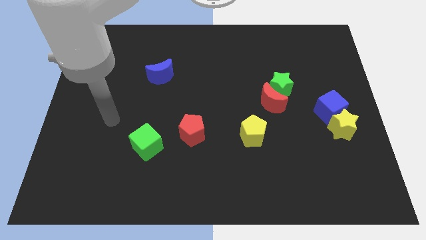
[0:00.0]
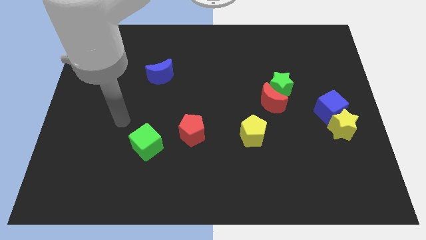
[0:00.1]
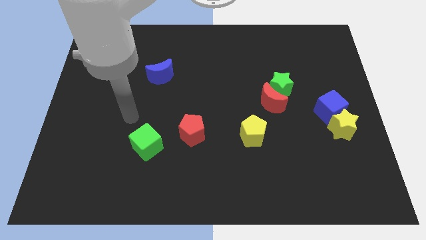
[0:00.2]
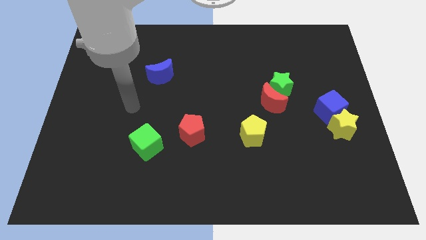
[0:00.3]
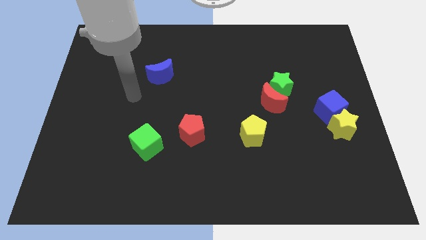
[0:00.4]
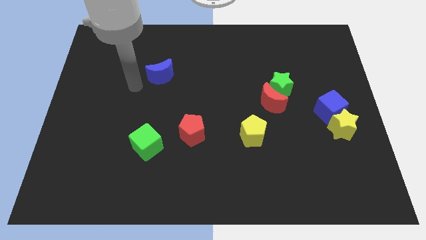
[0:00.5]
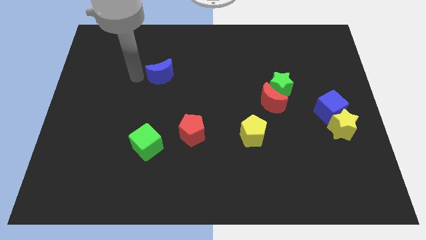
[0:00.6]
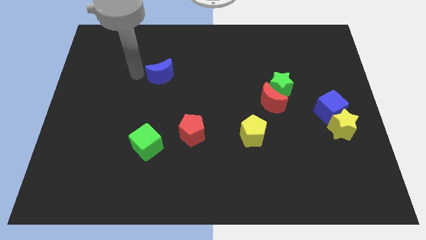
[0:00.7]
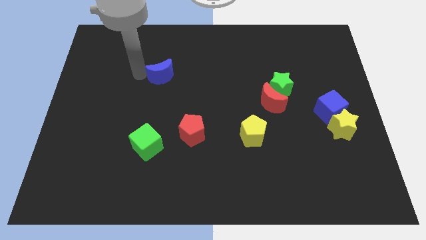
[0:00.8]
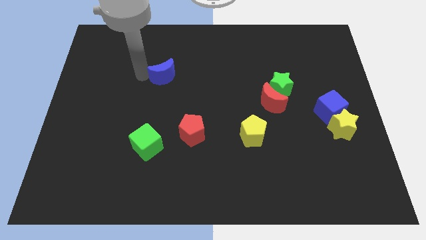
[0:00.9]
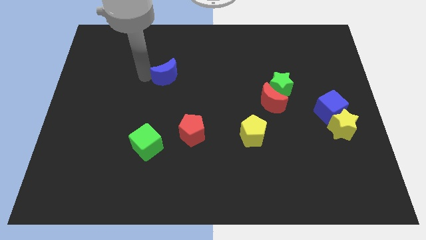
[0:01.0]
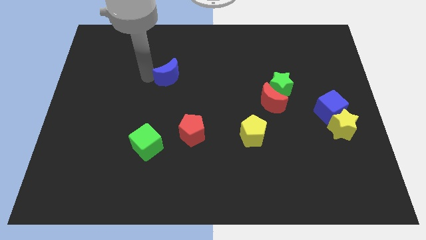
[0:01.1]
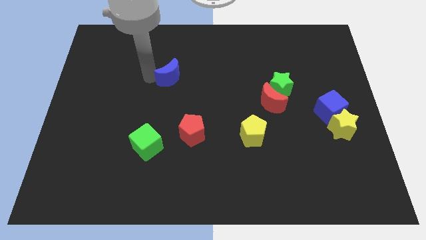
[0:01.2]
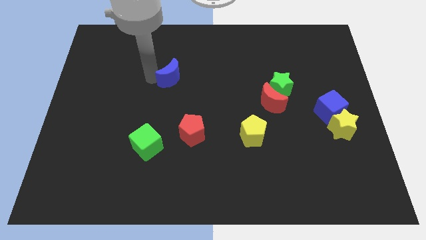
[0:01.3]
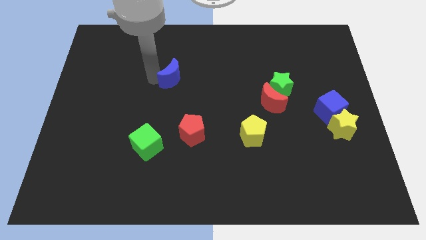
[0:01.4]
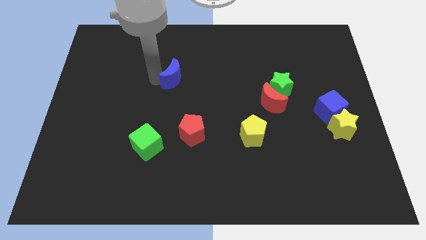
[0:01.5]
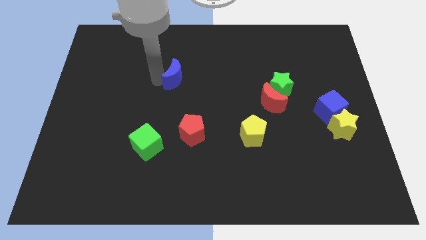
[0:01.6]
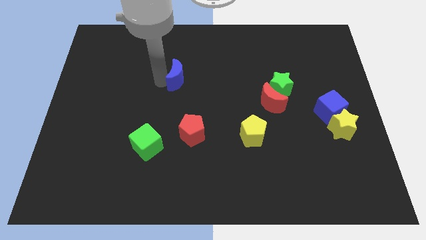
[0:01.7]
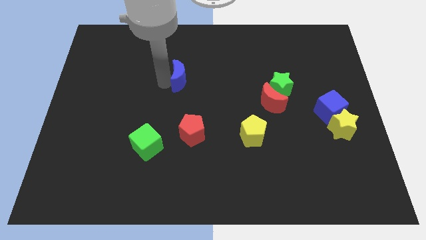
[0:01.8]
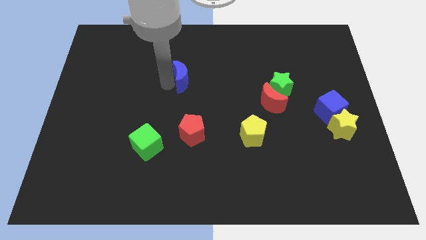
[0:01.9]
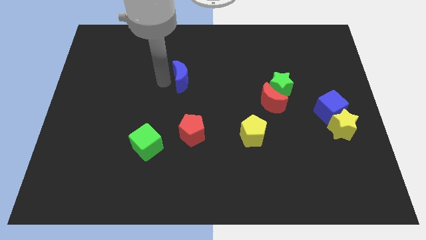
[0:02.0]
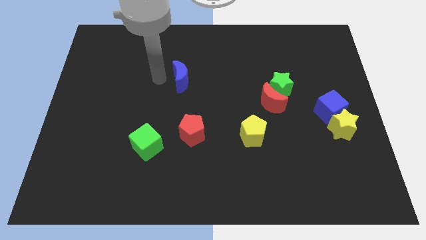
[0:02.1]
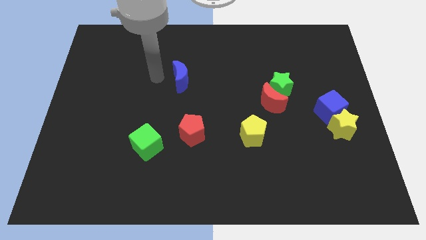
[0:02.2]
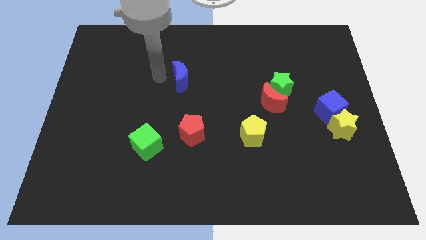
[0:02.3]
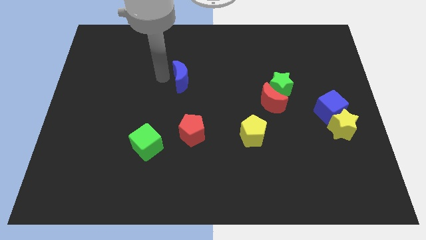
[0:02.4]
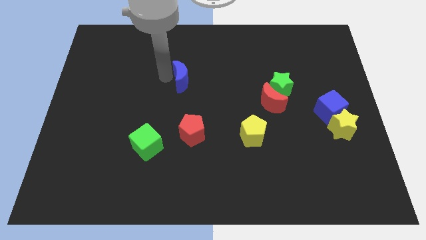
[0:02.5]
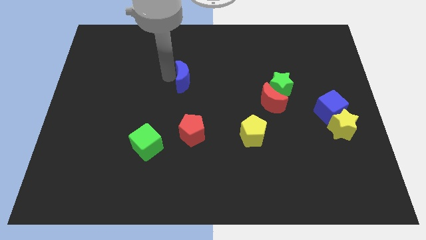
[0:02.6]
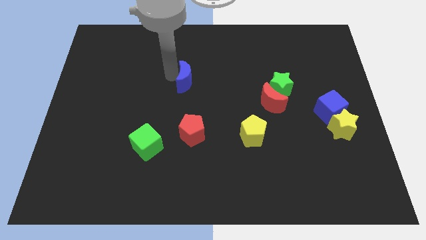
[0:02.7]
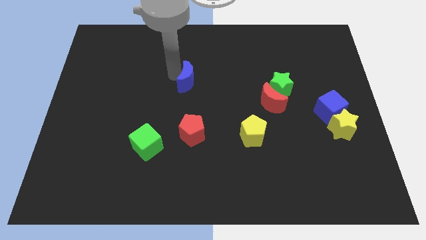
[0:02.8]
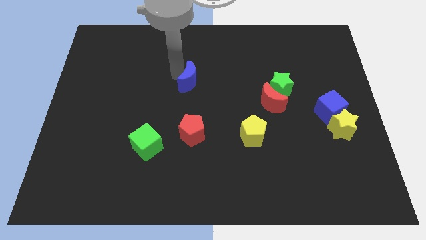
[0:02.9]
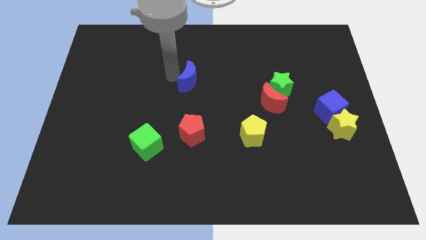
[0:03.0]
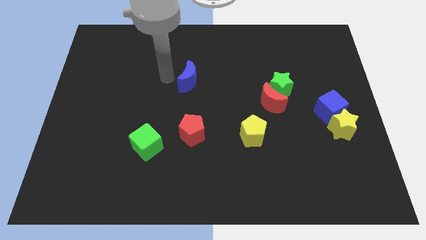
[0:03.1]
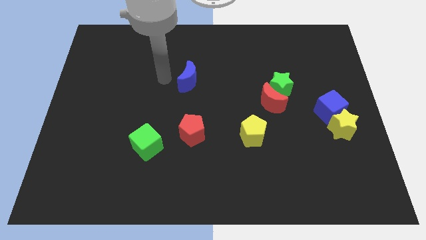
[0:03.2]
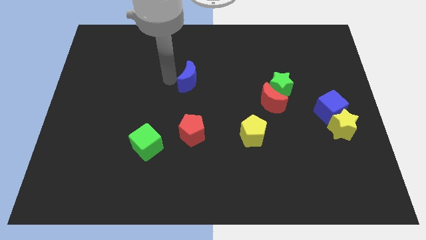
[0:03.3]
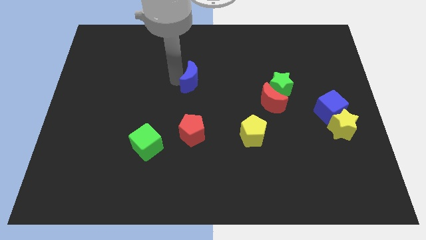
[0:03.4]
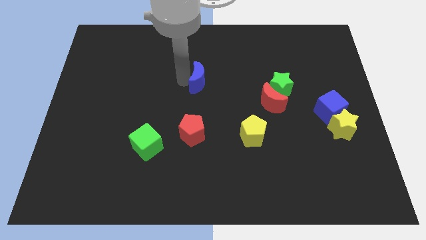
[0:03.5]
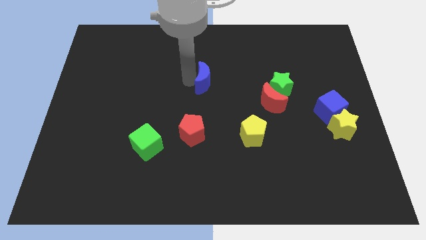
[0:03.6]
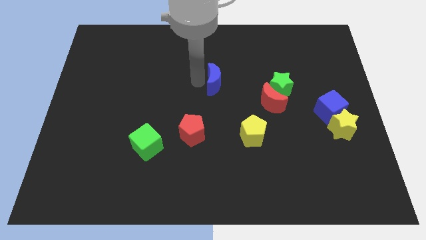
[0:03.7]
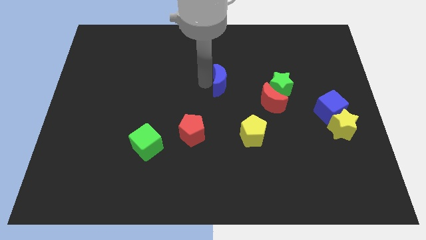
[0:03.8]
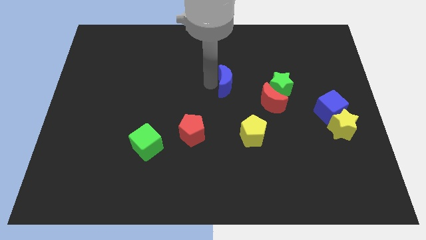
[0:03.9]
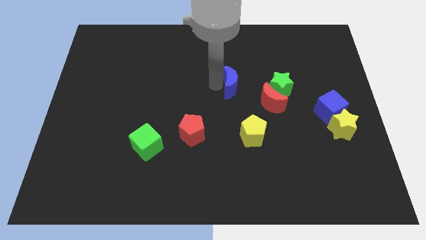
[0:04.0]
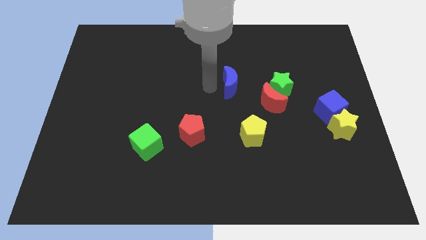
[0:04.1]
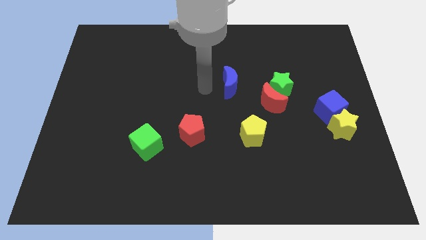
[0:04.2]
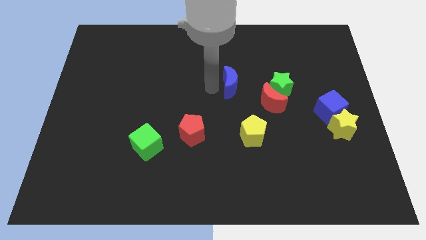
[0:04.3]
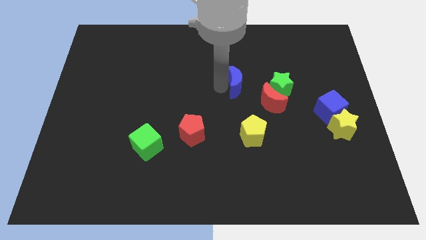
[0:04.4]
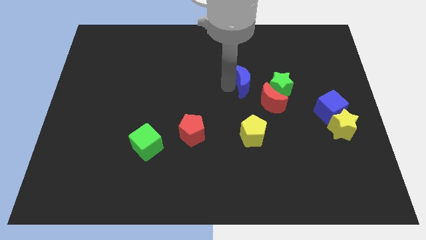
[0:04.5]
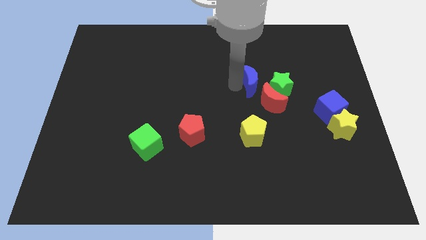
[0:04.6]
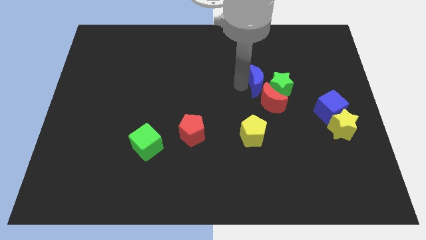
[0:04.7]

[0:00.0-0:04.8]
put the blue moon next to the green star

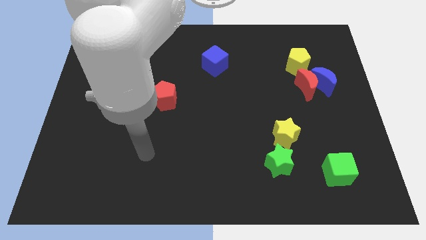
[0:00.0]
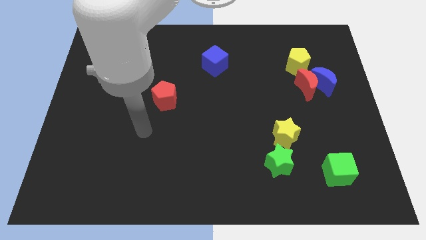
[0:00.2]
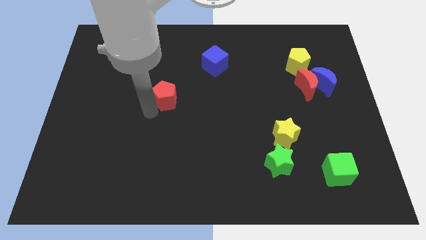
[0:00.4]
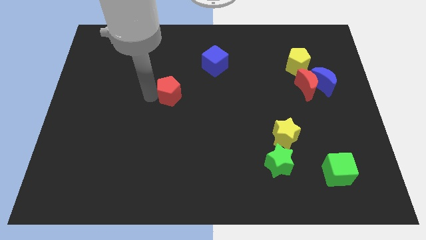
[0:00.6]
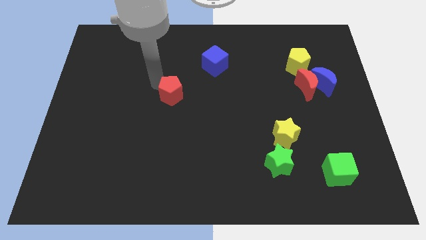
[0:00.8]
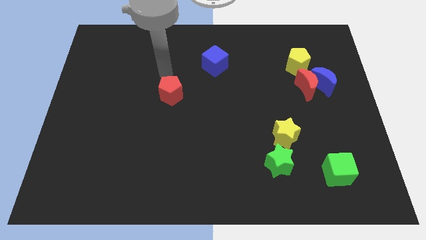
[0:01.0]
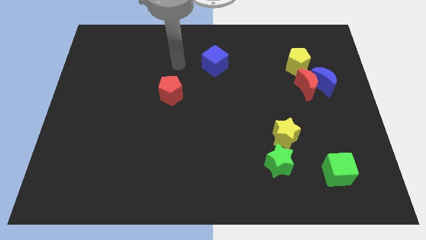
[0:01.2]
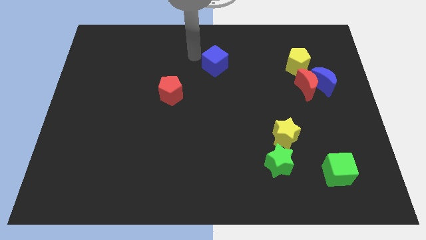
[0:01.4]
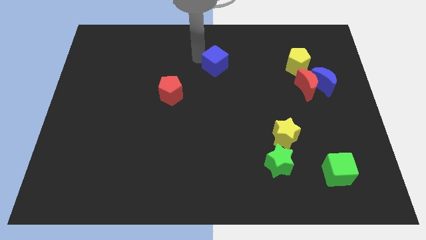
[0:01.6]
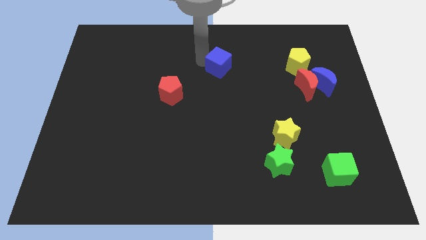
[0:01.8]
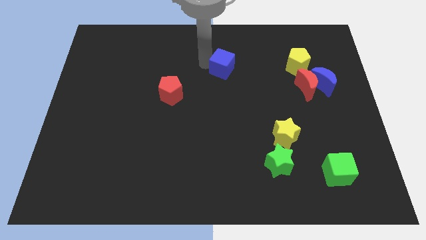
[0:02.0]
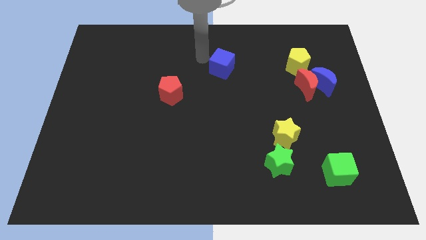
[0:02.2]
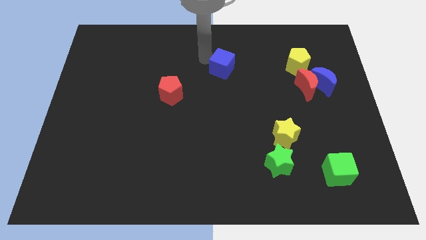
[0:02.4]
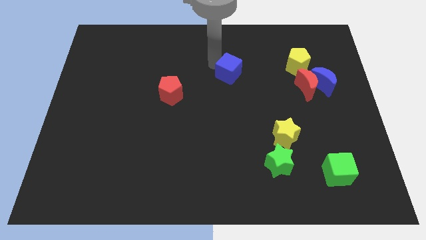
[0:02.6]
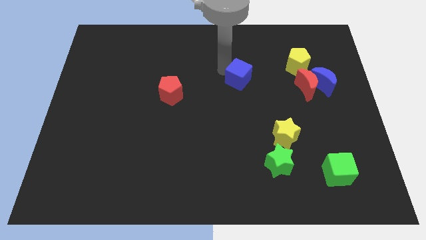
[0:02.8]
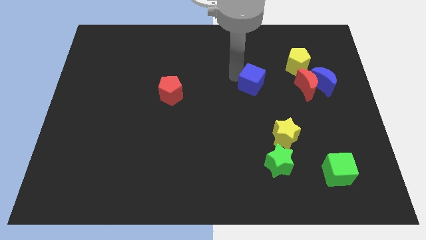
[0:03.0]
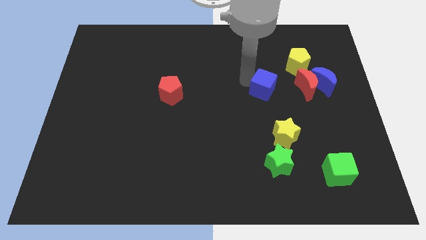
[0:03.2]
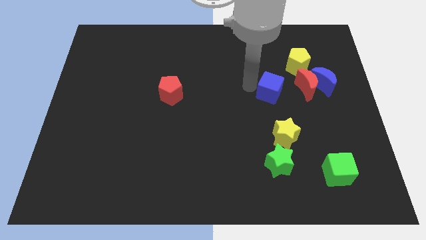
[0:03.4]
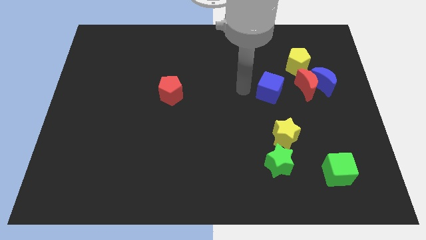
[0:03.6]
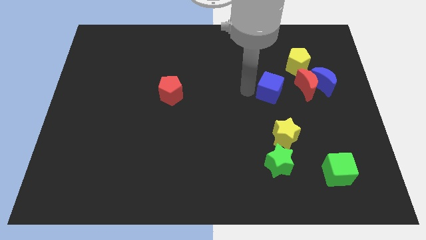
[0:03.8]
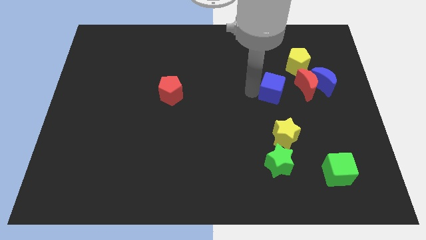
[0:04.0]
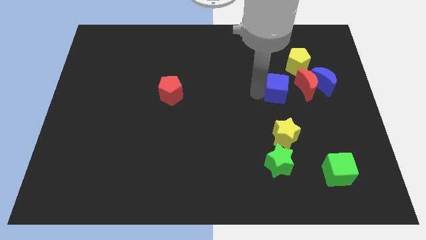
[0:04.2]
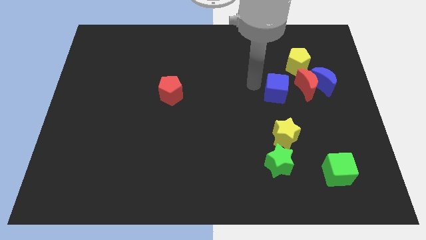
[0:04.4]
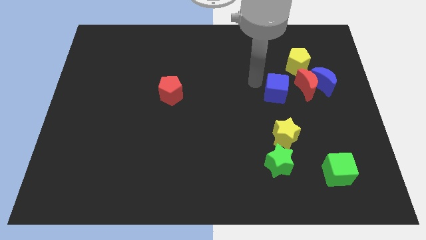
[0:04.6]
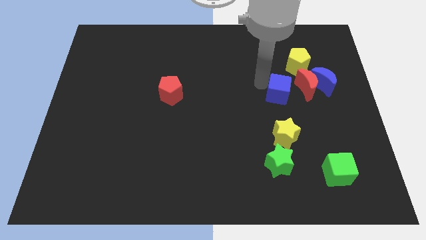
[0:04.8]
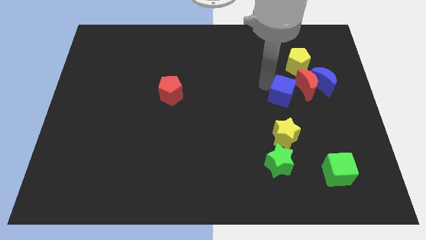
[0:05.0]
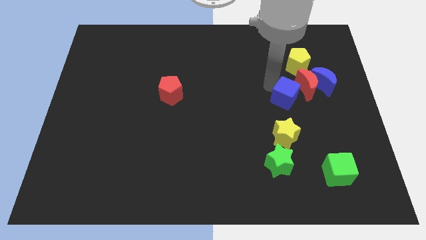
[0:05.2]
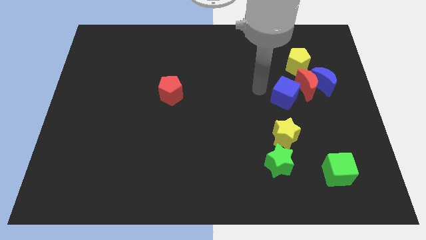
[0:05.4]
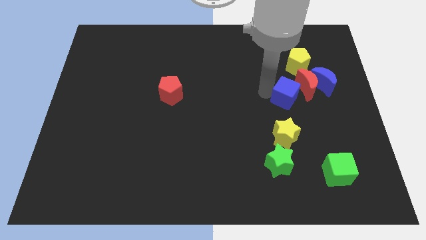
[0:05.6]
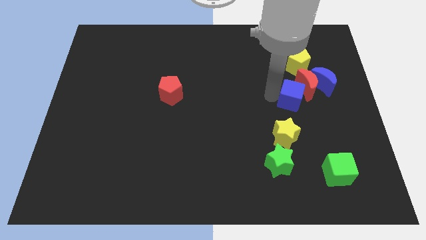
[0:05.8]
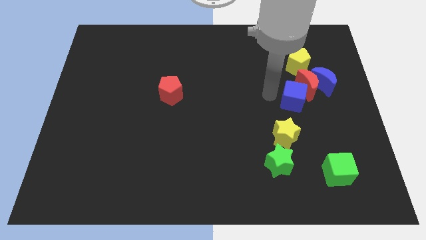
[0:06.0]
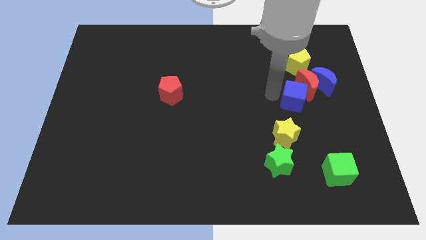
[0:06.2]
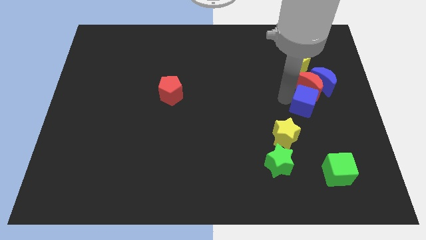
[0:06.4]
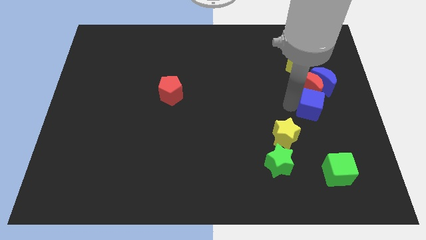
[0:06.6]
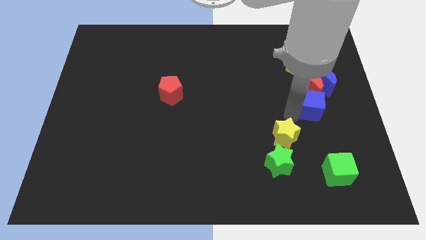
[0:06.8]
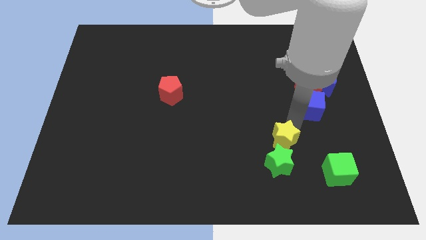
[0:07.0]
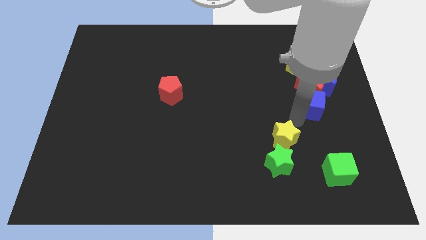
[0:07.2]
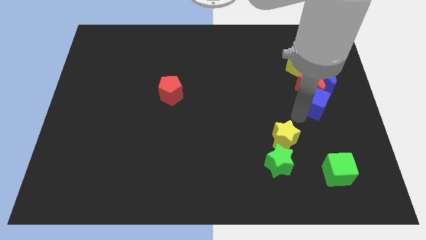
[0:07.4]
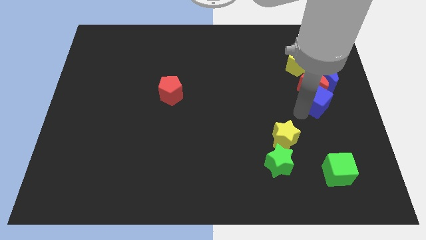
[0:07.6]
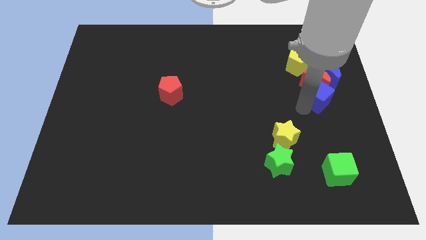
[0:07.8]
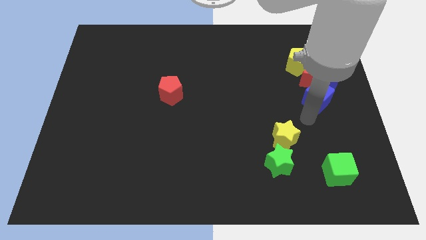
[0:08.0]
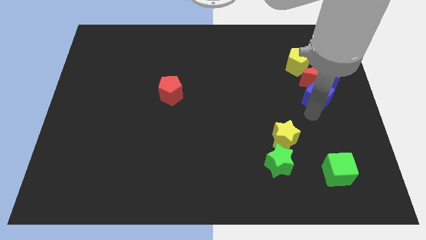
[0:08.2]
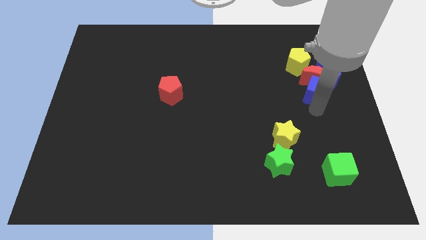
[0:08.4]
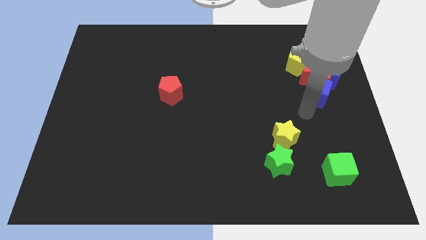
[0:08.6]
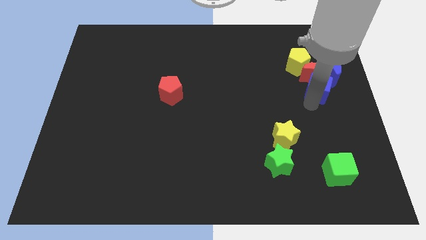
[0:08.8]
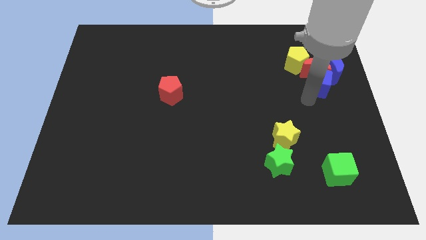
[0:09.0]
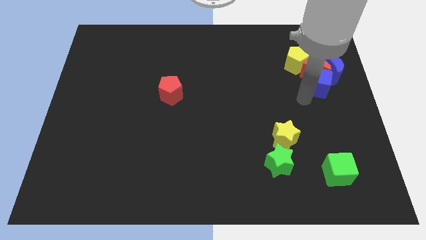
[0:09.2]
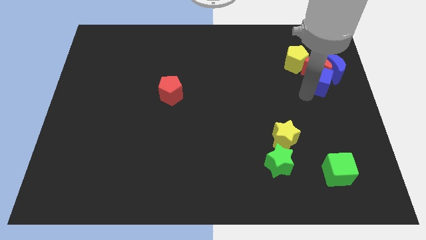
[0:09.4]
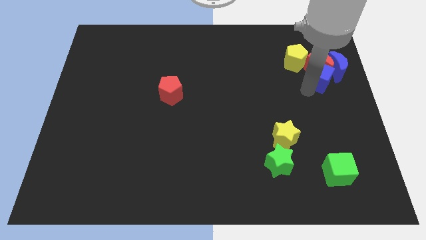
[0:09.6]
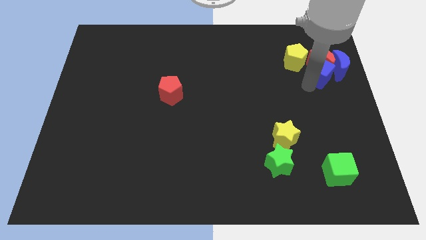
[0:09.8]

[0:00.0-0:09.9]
push the blue cube next to the blue moon
